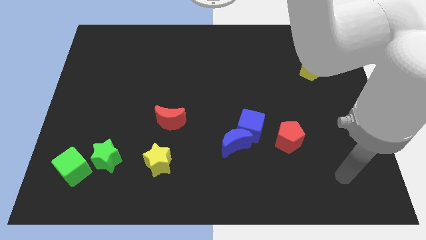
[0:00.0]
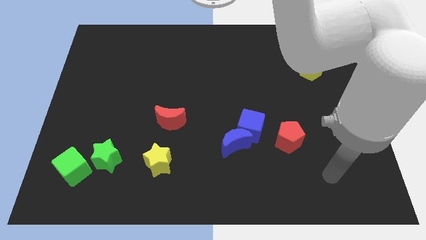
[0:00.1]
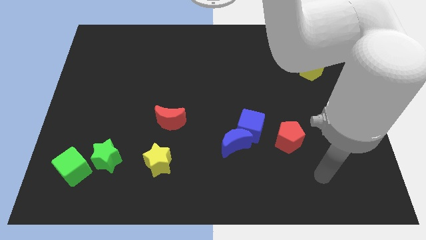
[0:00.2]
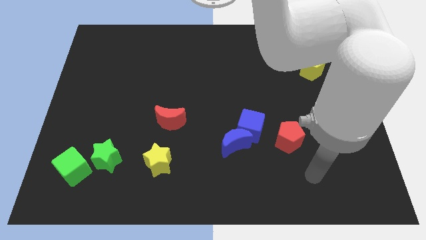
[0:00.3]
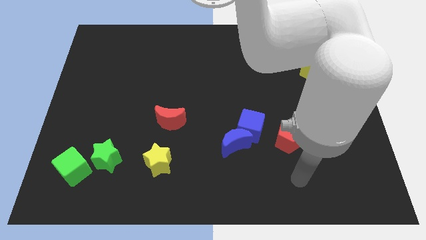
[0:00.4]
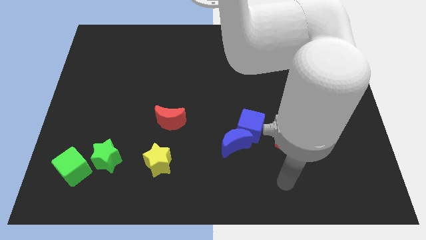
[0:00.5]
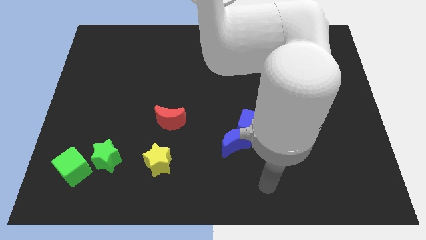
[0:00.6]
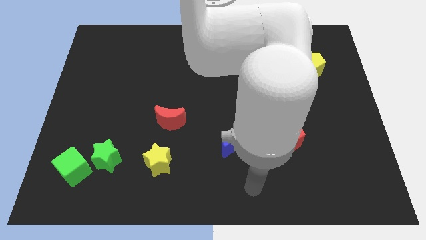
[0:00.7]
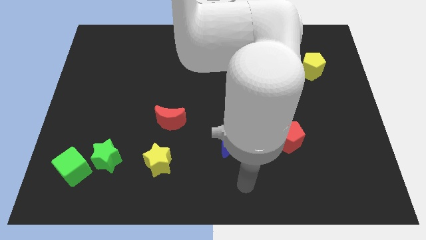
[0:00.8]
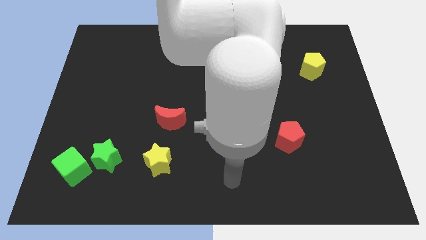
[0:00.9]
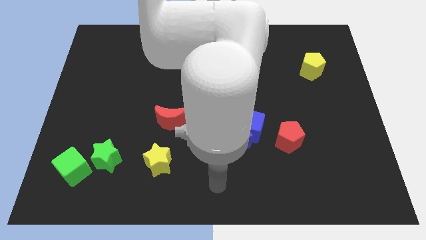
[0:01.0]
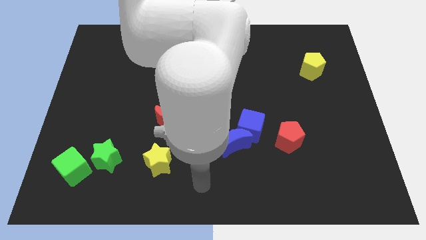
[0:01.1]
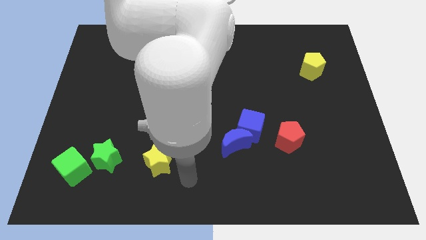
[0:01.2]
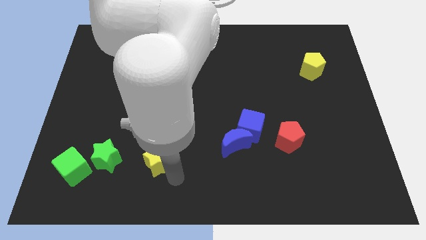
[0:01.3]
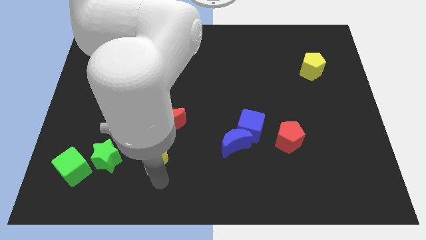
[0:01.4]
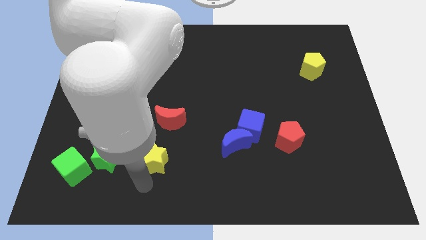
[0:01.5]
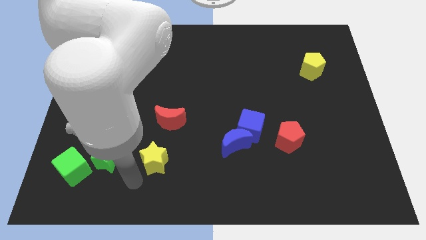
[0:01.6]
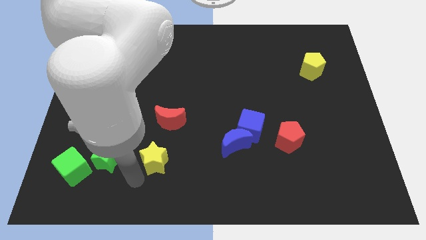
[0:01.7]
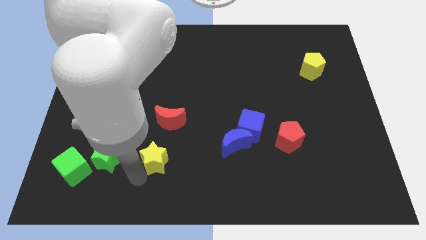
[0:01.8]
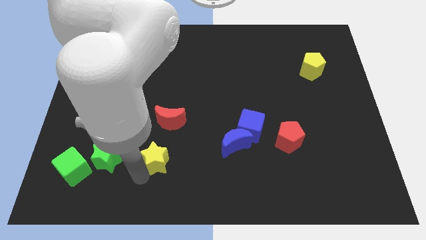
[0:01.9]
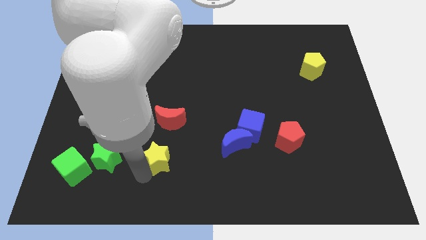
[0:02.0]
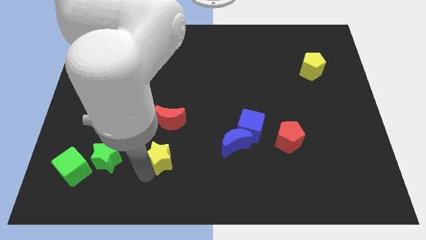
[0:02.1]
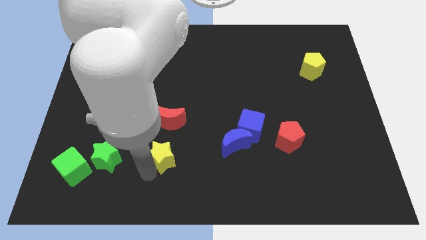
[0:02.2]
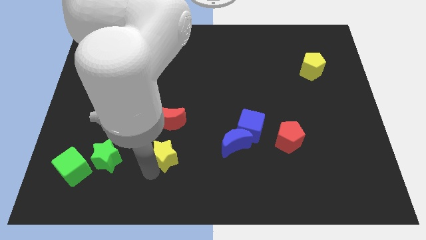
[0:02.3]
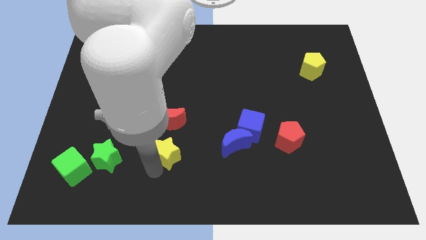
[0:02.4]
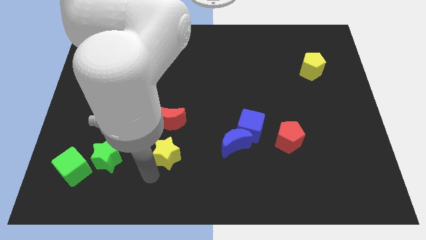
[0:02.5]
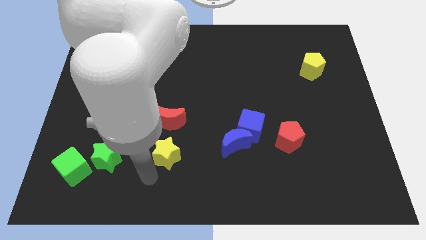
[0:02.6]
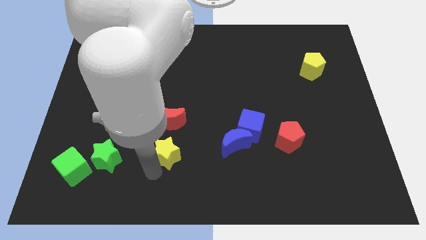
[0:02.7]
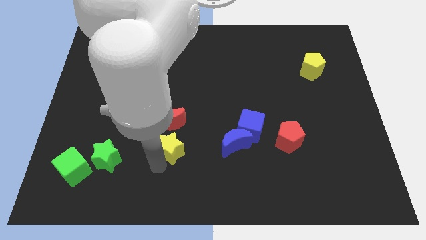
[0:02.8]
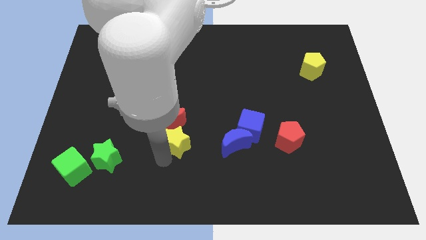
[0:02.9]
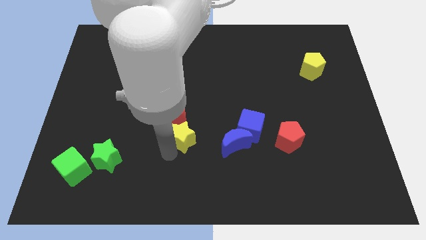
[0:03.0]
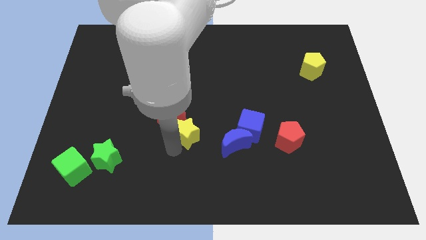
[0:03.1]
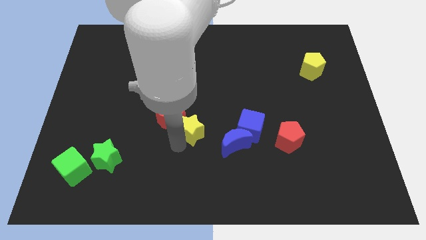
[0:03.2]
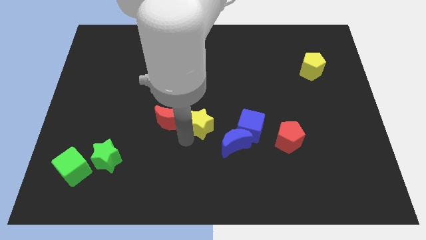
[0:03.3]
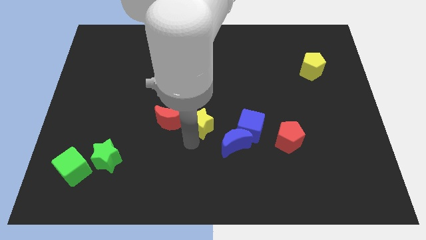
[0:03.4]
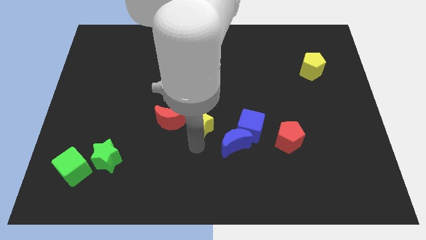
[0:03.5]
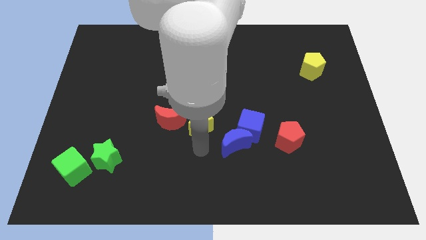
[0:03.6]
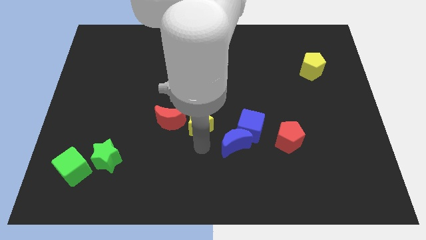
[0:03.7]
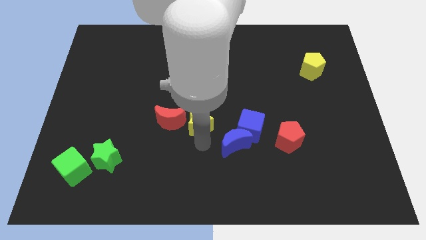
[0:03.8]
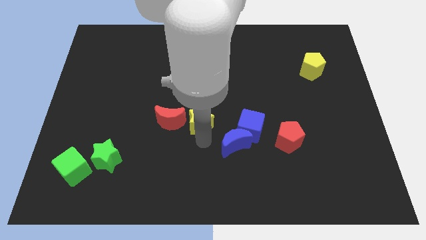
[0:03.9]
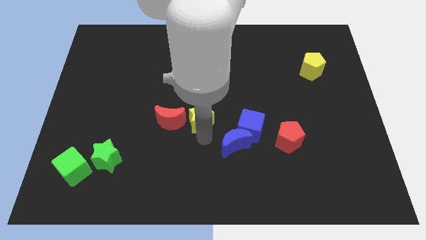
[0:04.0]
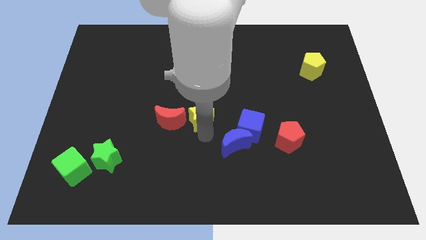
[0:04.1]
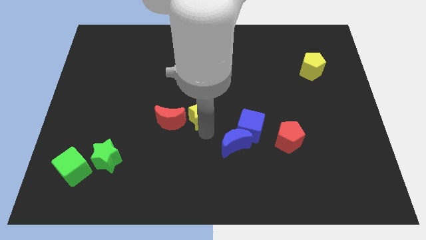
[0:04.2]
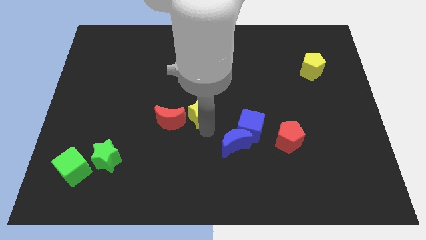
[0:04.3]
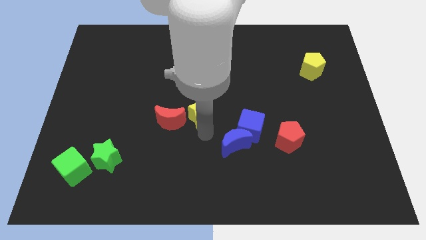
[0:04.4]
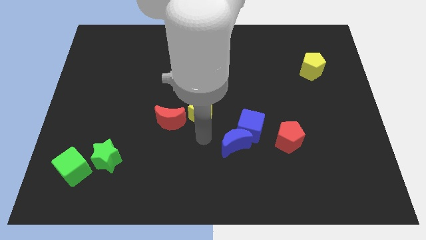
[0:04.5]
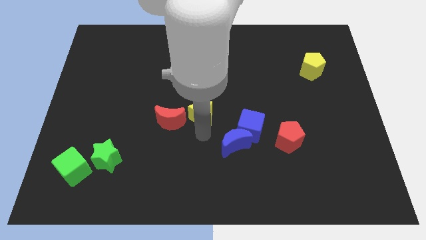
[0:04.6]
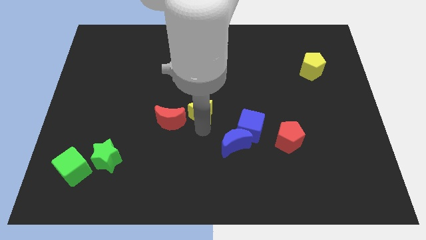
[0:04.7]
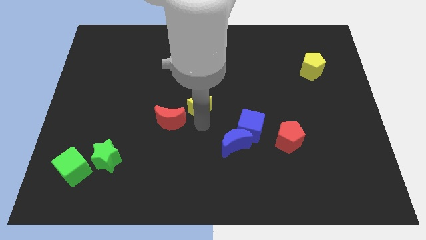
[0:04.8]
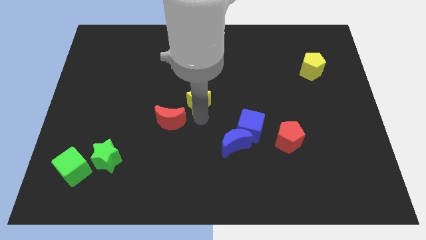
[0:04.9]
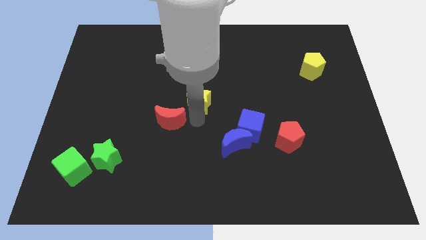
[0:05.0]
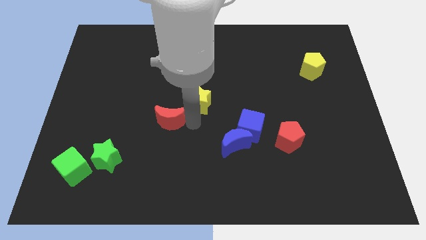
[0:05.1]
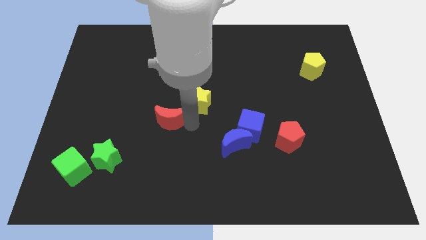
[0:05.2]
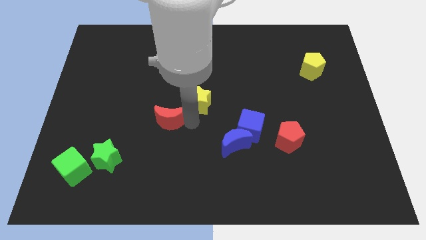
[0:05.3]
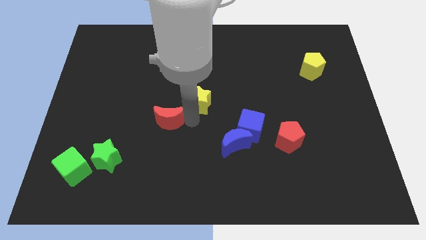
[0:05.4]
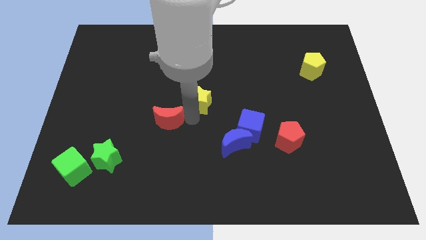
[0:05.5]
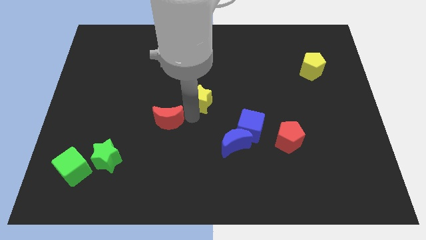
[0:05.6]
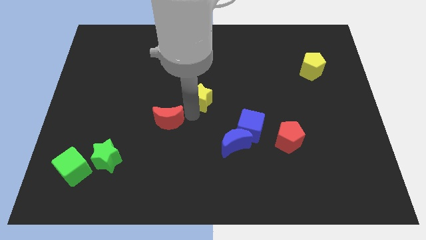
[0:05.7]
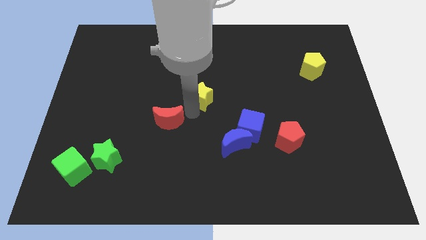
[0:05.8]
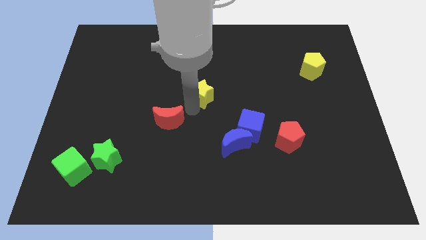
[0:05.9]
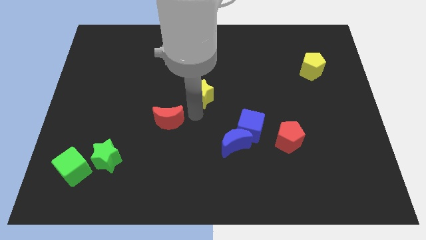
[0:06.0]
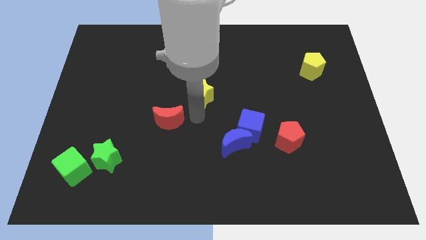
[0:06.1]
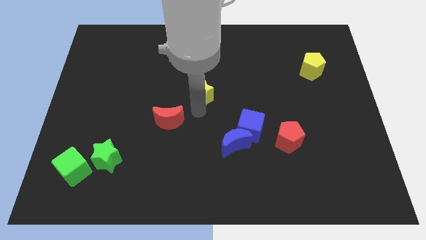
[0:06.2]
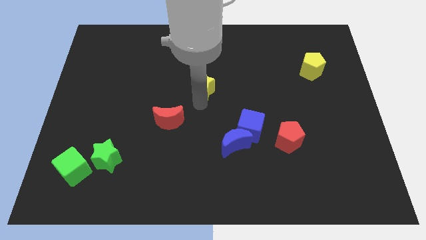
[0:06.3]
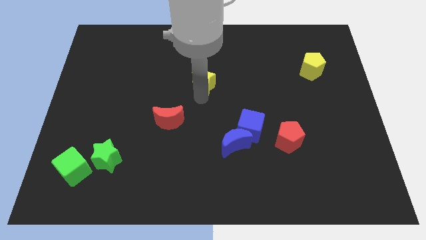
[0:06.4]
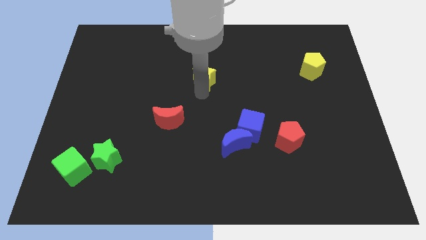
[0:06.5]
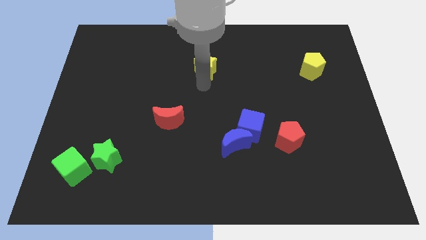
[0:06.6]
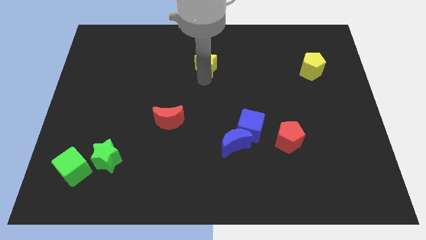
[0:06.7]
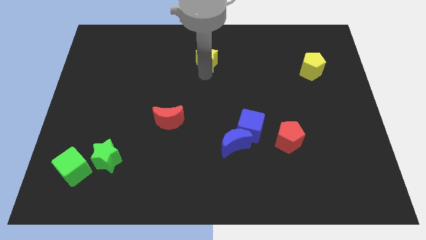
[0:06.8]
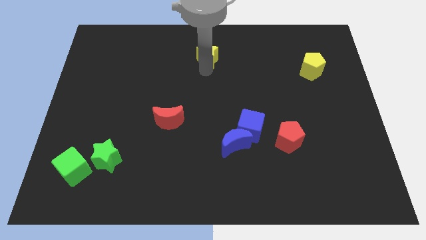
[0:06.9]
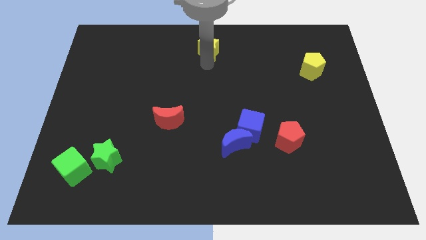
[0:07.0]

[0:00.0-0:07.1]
slide the yellow star to the top

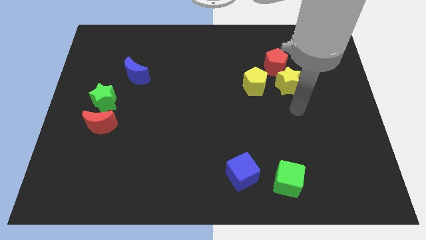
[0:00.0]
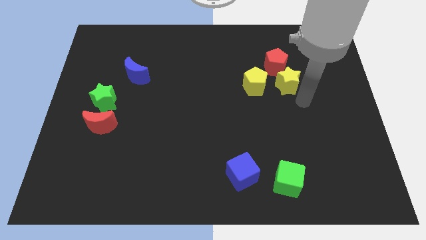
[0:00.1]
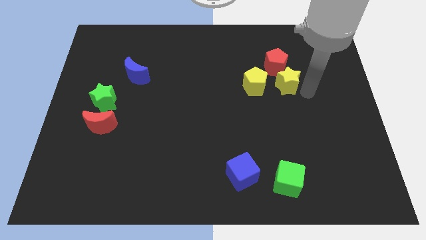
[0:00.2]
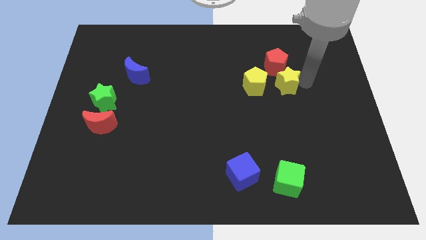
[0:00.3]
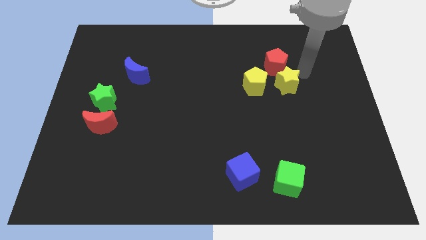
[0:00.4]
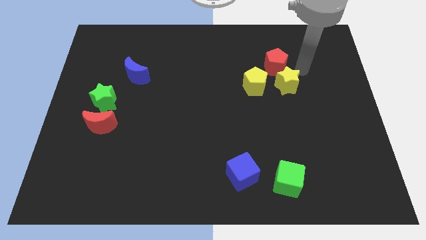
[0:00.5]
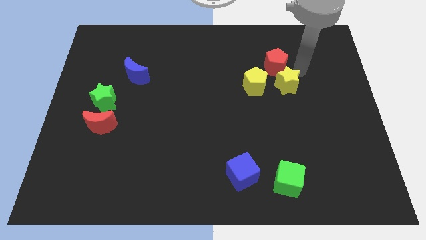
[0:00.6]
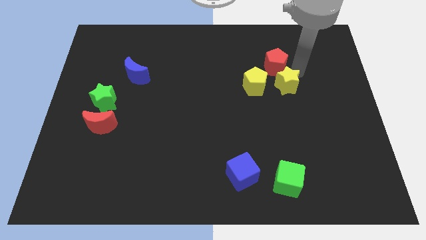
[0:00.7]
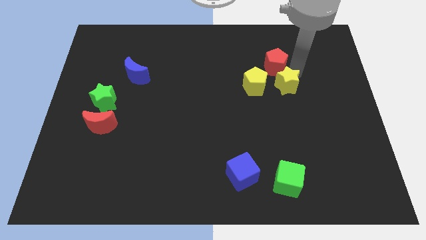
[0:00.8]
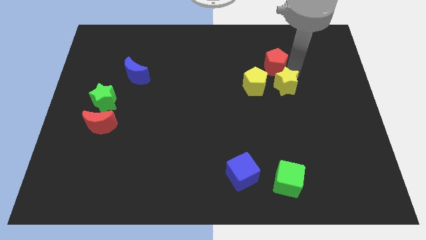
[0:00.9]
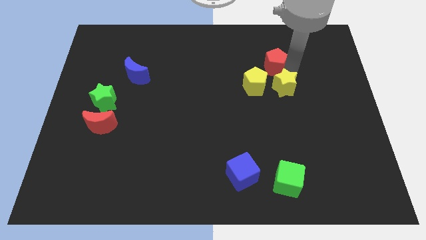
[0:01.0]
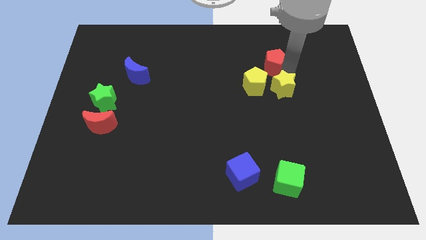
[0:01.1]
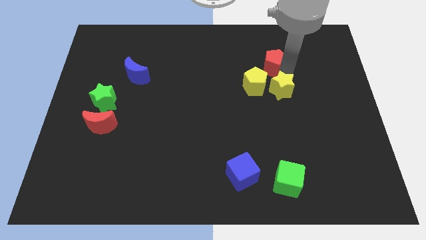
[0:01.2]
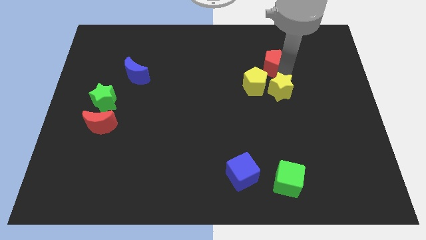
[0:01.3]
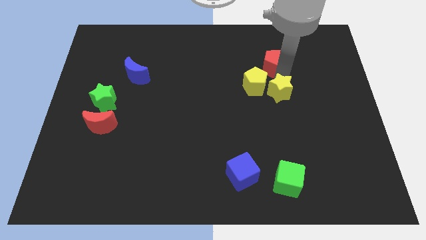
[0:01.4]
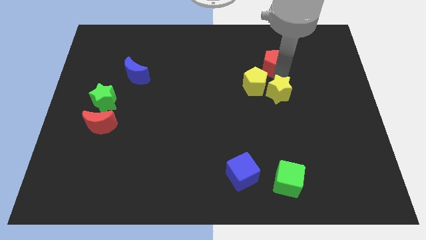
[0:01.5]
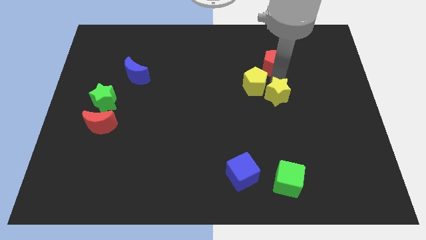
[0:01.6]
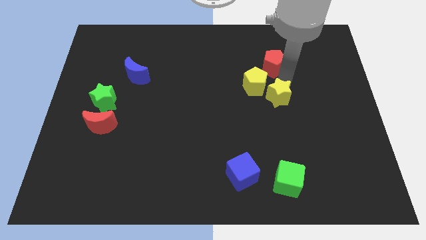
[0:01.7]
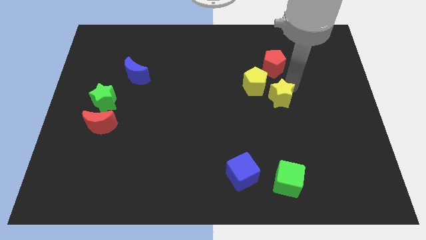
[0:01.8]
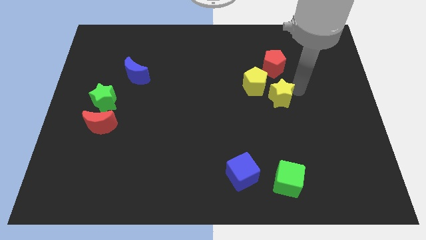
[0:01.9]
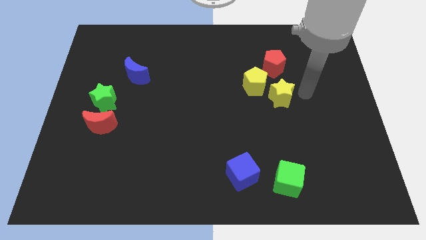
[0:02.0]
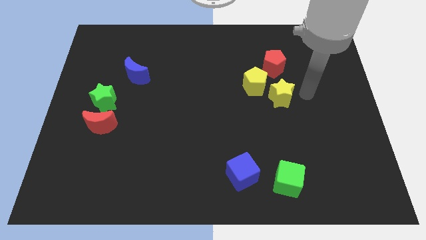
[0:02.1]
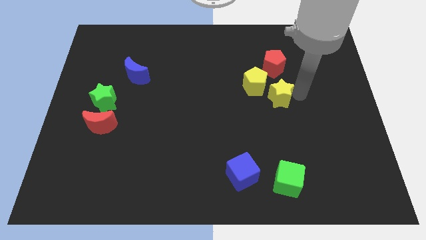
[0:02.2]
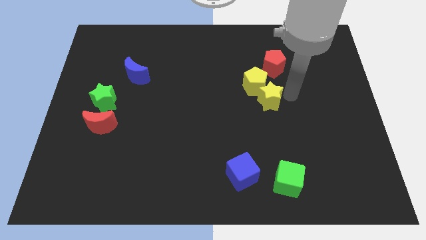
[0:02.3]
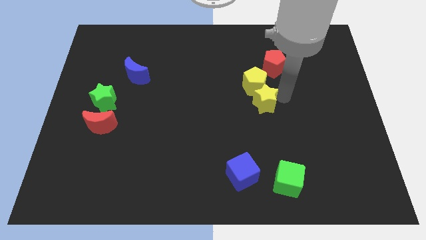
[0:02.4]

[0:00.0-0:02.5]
push the yellow star to the center of the board
